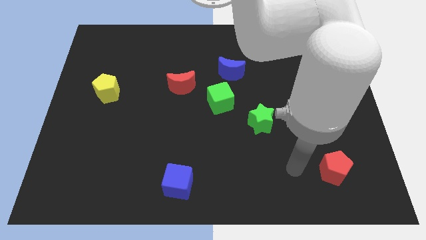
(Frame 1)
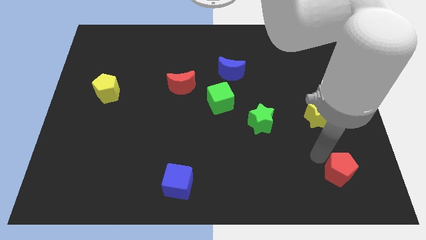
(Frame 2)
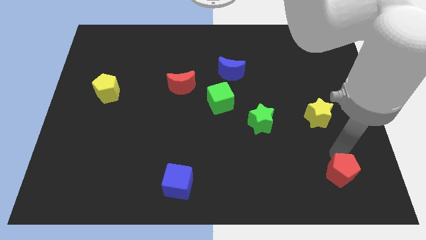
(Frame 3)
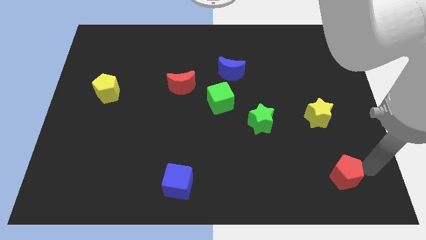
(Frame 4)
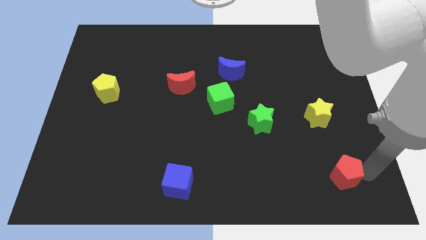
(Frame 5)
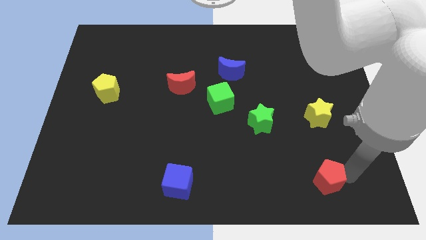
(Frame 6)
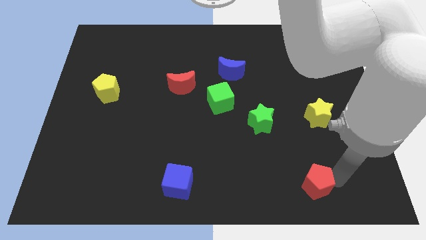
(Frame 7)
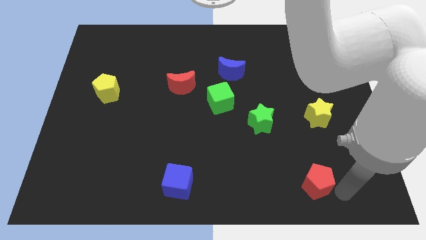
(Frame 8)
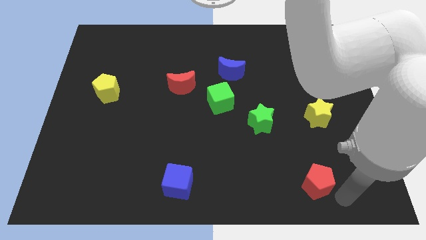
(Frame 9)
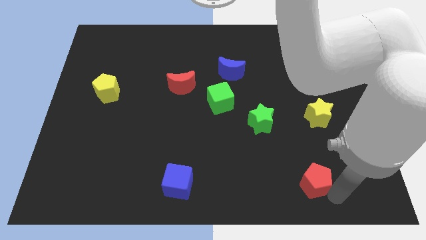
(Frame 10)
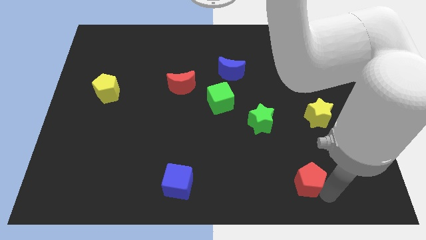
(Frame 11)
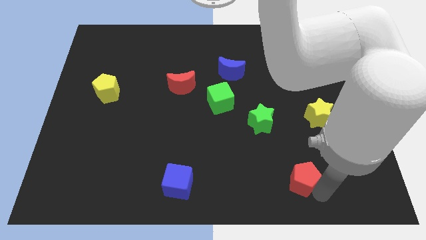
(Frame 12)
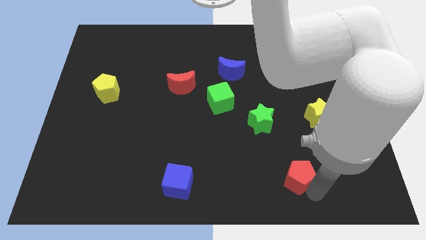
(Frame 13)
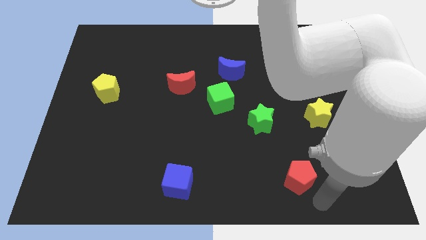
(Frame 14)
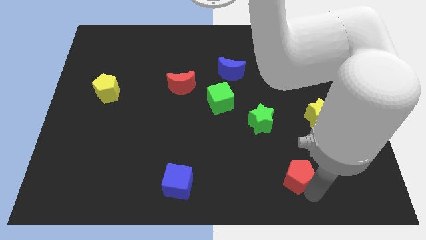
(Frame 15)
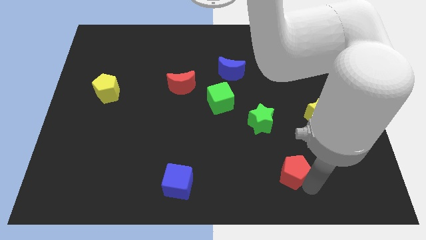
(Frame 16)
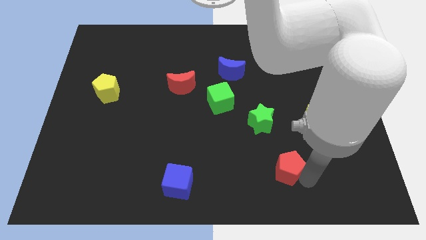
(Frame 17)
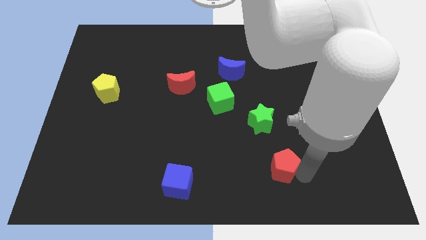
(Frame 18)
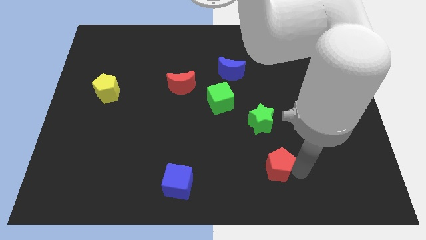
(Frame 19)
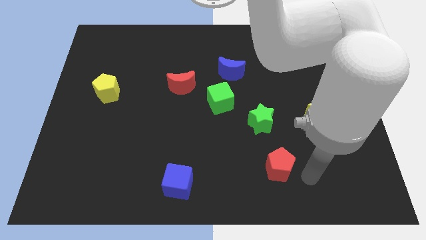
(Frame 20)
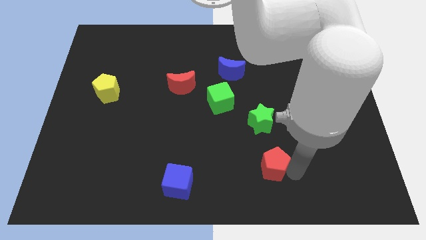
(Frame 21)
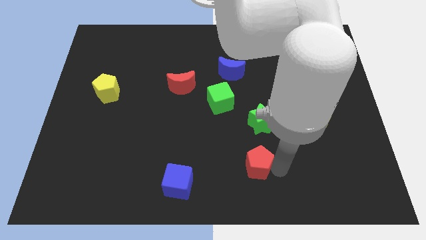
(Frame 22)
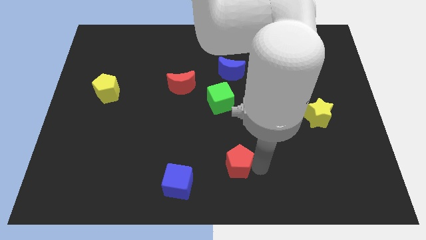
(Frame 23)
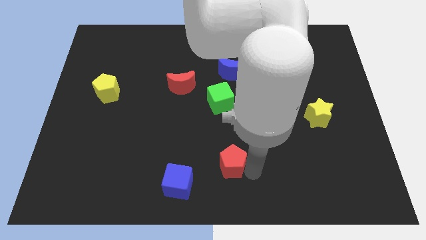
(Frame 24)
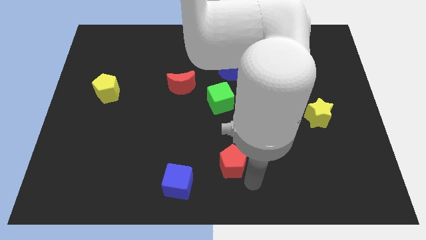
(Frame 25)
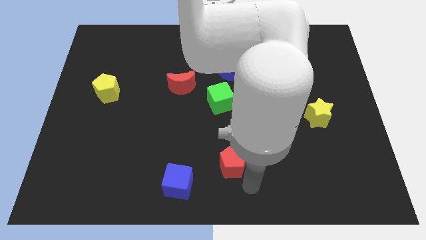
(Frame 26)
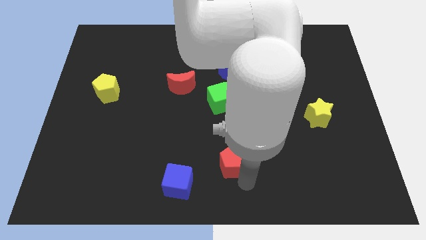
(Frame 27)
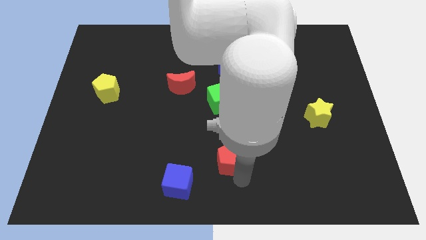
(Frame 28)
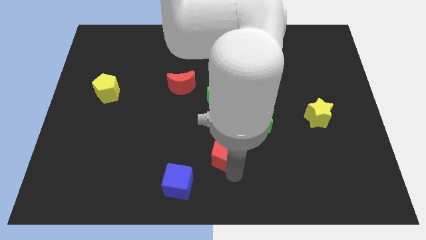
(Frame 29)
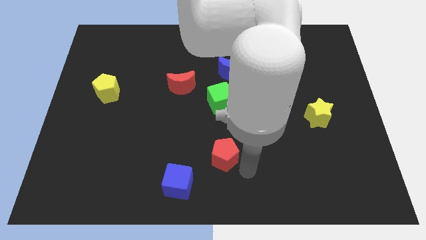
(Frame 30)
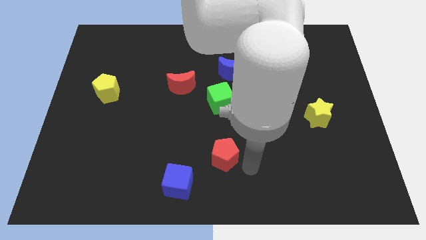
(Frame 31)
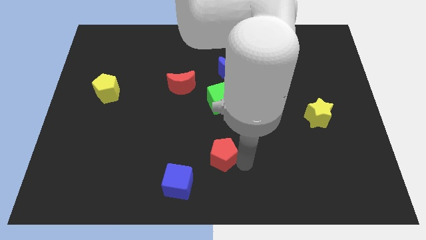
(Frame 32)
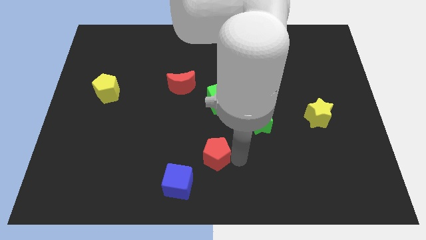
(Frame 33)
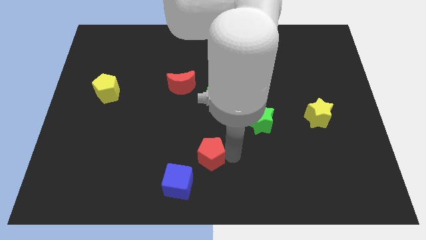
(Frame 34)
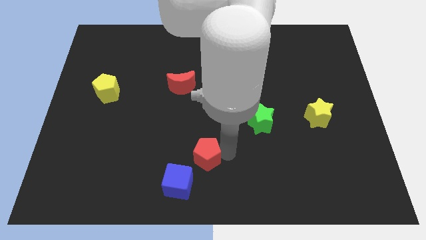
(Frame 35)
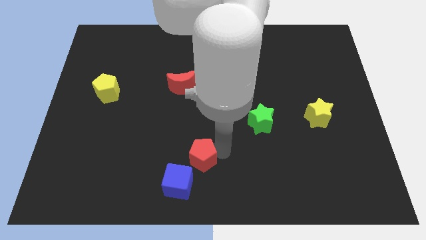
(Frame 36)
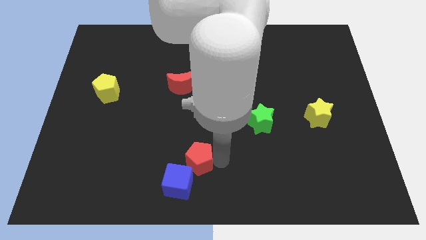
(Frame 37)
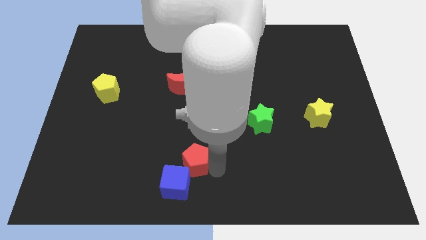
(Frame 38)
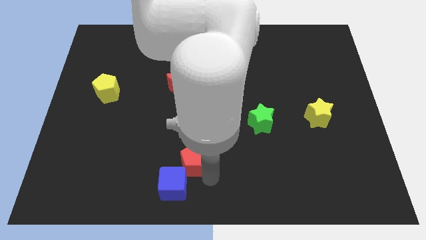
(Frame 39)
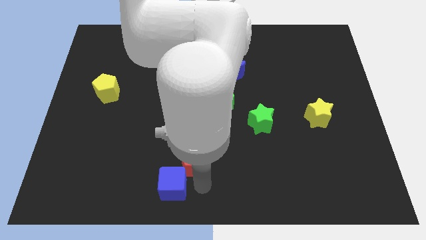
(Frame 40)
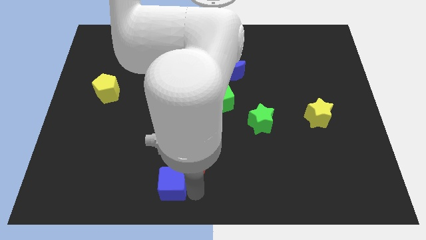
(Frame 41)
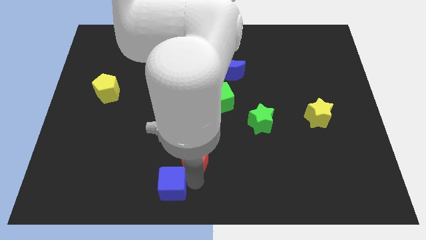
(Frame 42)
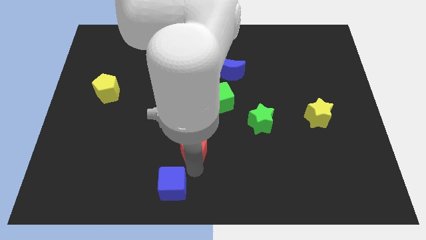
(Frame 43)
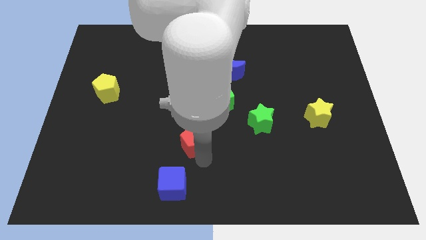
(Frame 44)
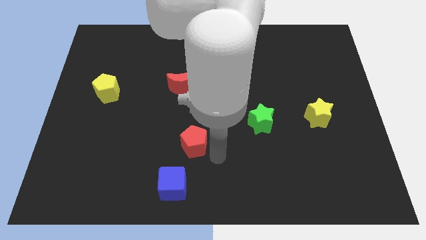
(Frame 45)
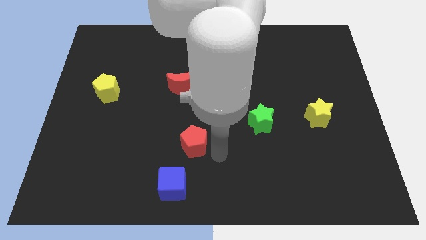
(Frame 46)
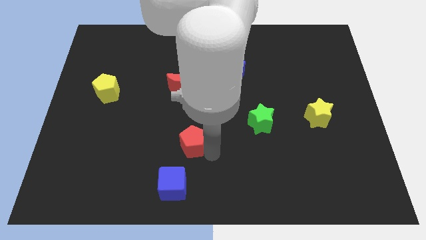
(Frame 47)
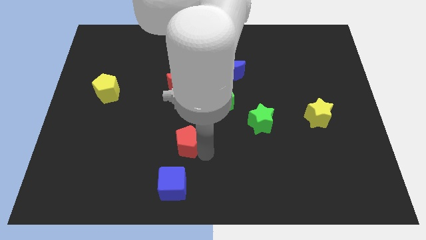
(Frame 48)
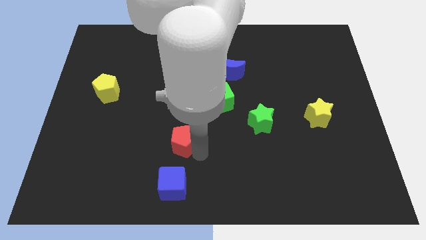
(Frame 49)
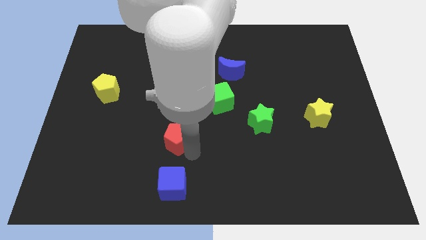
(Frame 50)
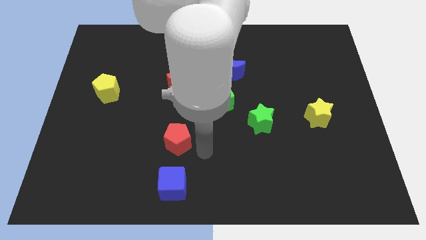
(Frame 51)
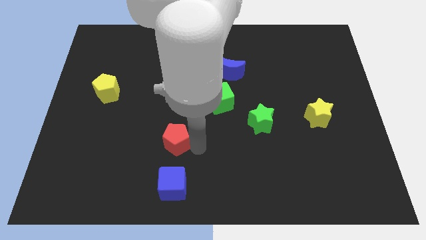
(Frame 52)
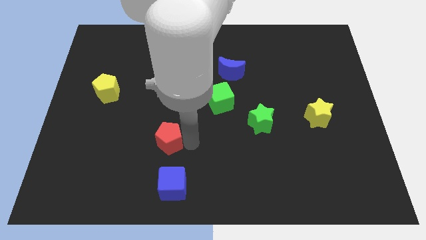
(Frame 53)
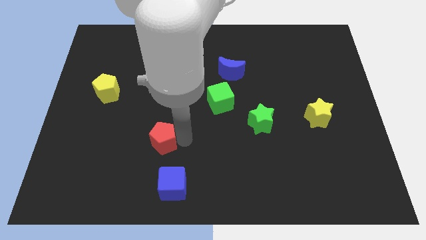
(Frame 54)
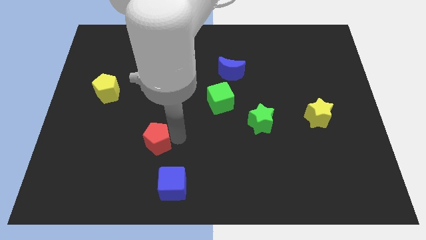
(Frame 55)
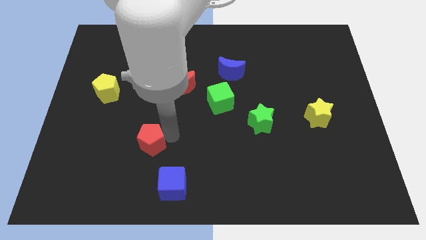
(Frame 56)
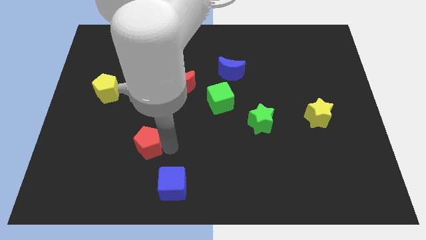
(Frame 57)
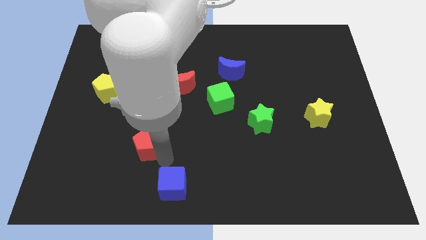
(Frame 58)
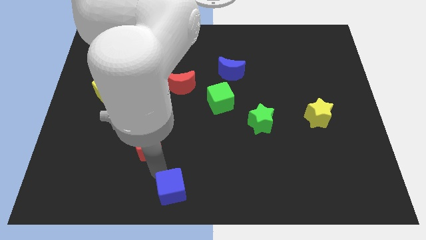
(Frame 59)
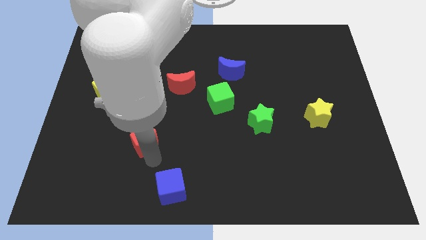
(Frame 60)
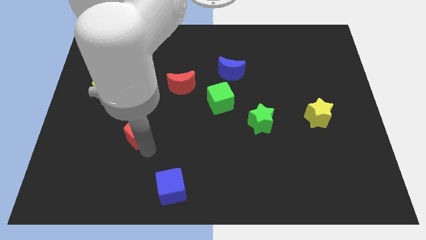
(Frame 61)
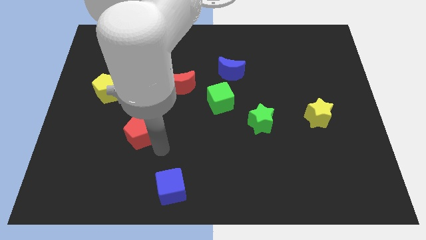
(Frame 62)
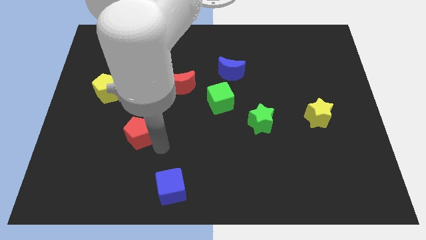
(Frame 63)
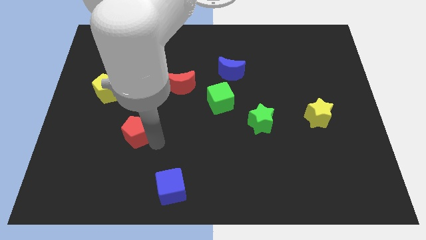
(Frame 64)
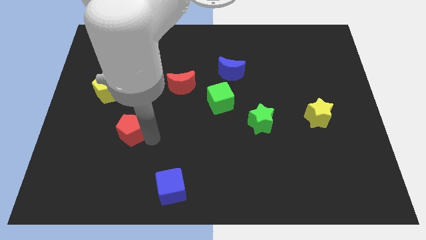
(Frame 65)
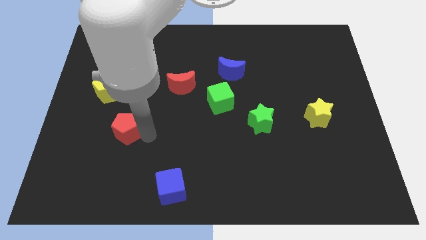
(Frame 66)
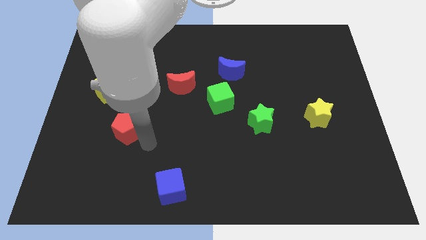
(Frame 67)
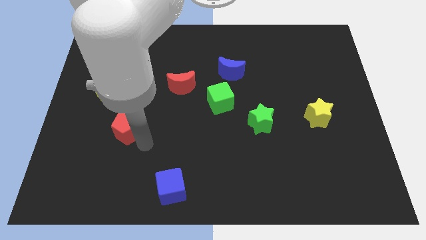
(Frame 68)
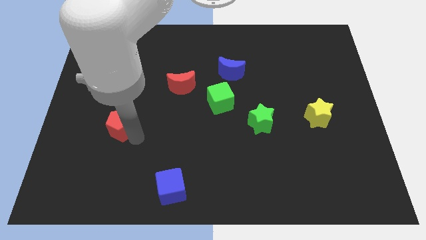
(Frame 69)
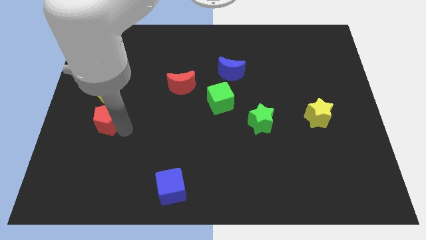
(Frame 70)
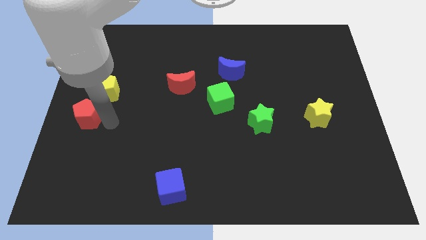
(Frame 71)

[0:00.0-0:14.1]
slide the red pentagon to the left side
